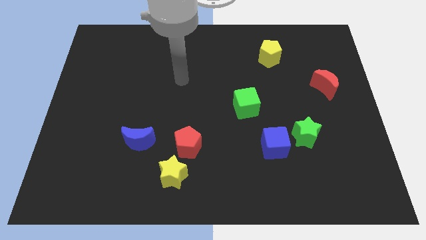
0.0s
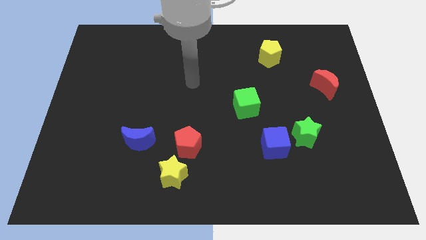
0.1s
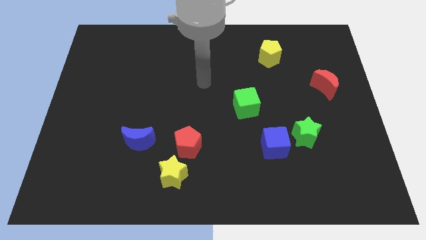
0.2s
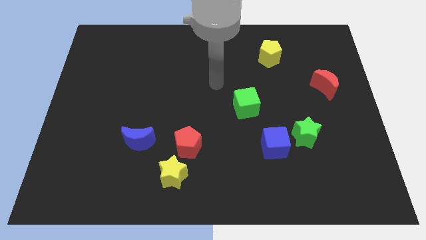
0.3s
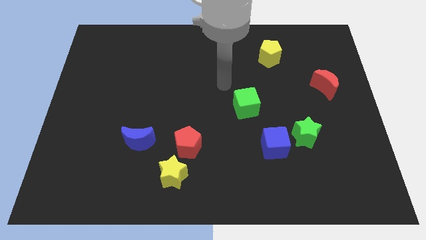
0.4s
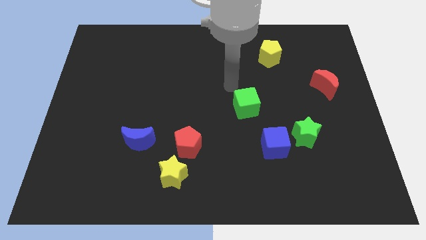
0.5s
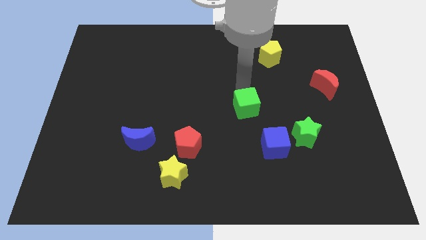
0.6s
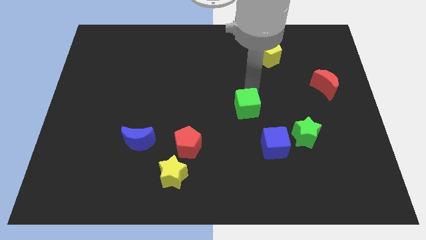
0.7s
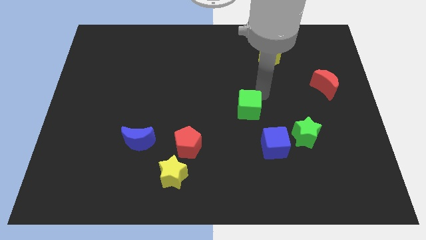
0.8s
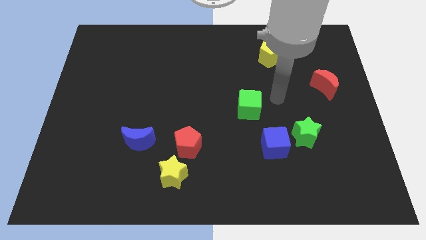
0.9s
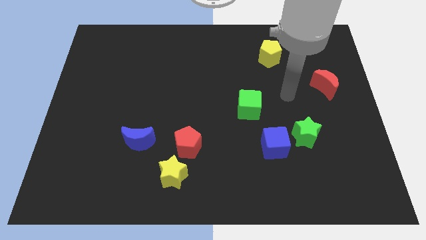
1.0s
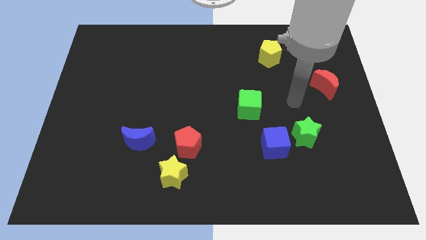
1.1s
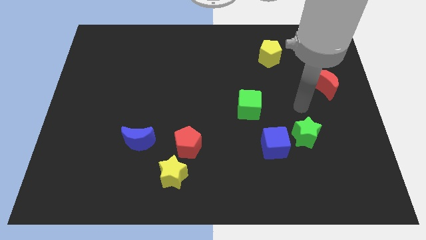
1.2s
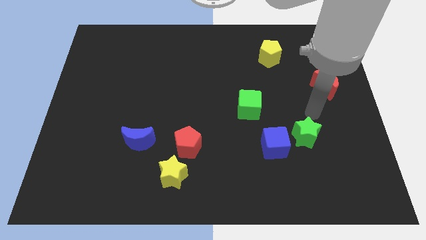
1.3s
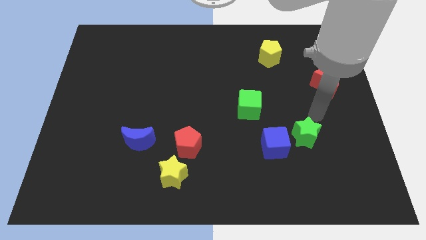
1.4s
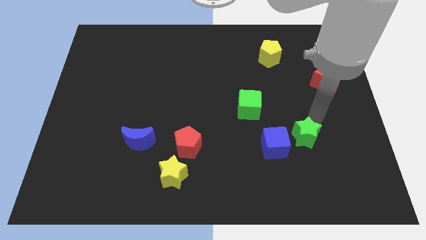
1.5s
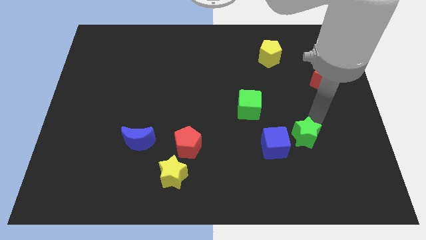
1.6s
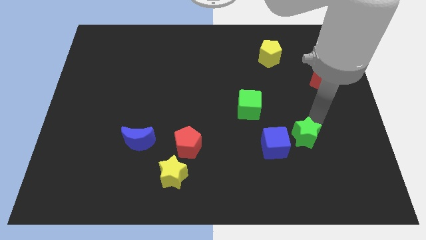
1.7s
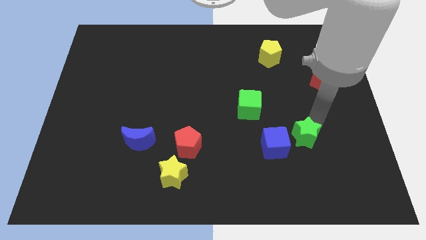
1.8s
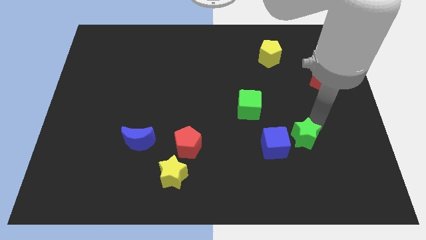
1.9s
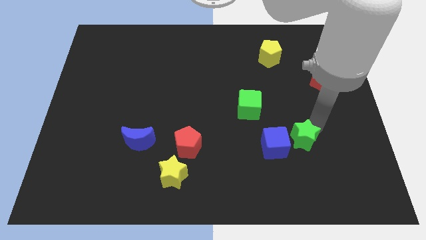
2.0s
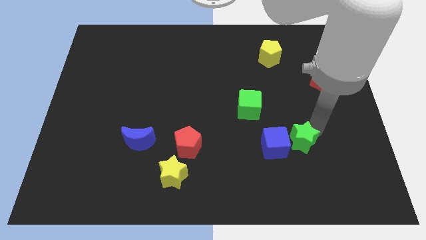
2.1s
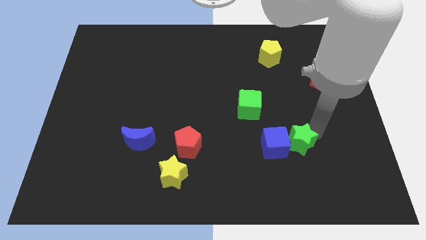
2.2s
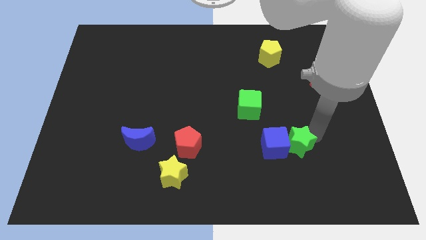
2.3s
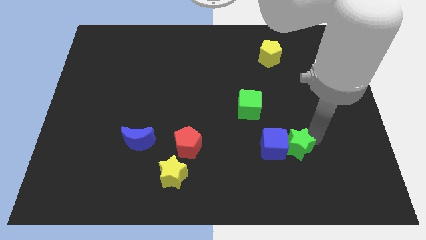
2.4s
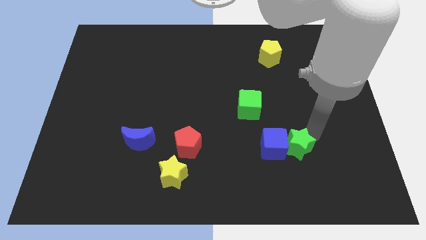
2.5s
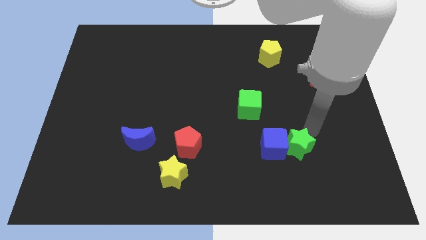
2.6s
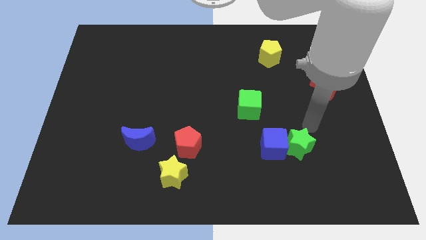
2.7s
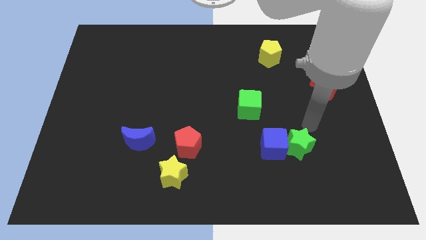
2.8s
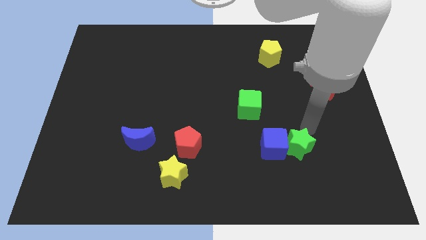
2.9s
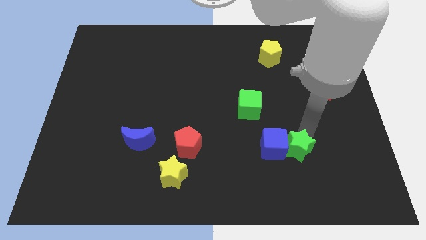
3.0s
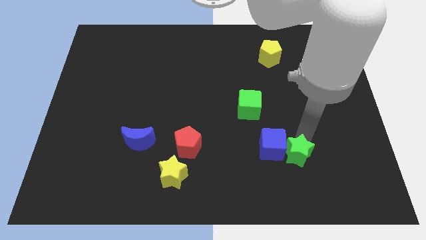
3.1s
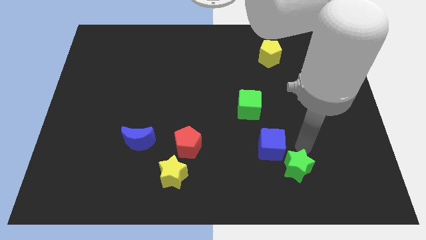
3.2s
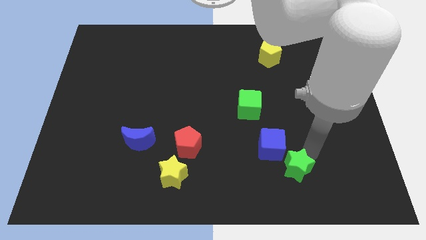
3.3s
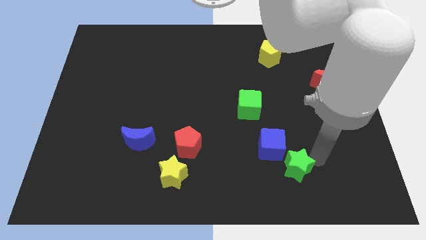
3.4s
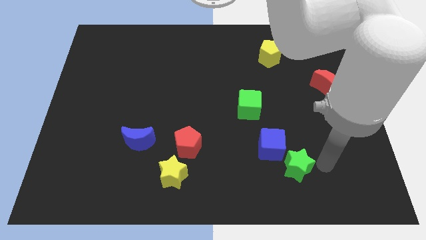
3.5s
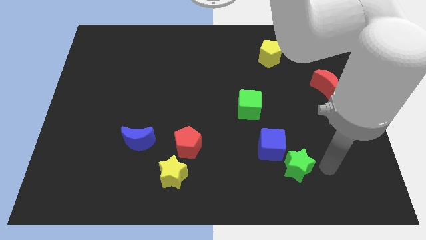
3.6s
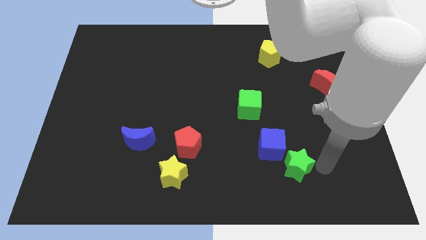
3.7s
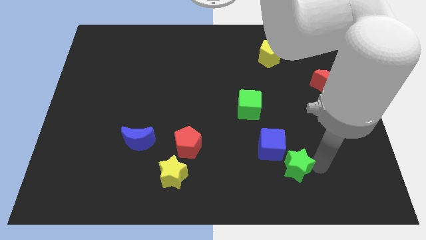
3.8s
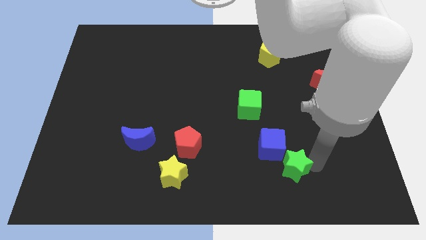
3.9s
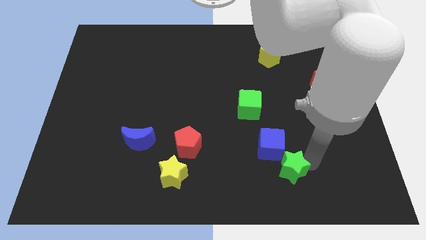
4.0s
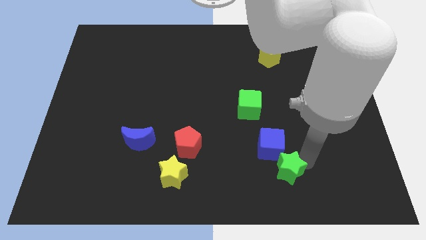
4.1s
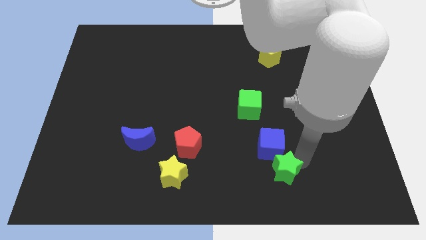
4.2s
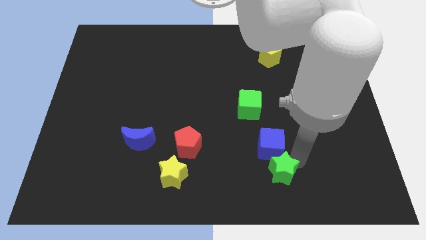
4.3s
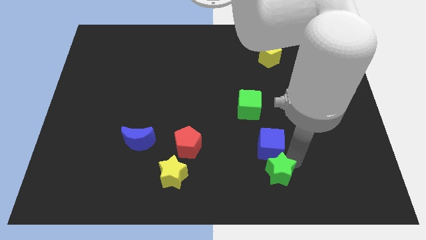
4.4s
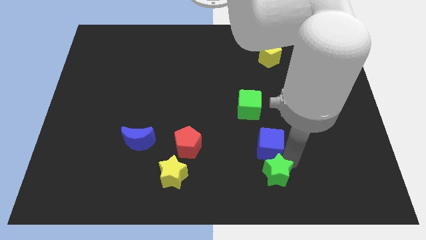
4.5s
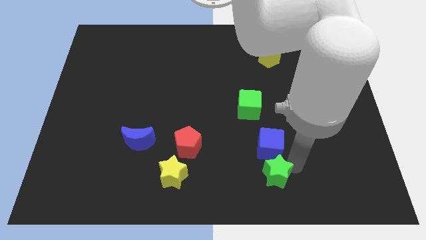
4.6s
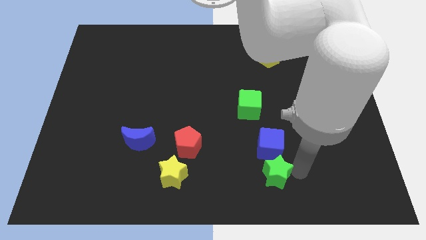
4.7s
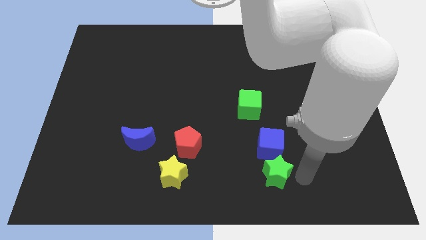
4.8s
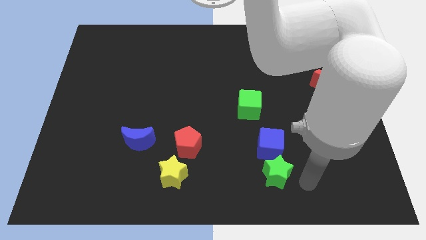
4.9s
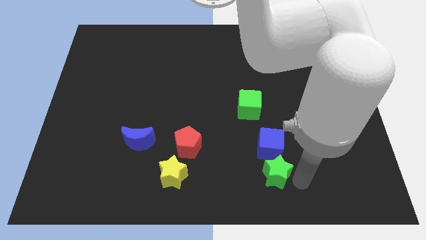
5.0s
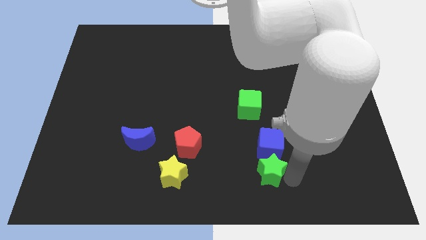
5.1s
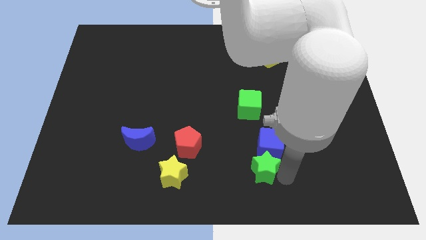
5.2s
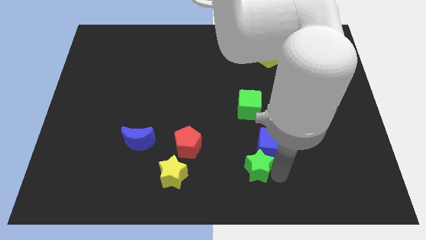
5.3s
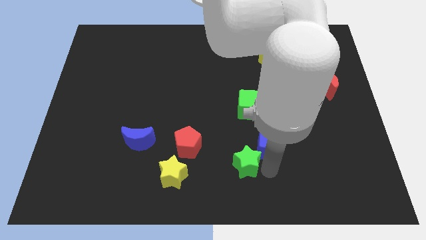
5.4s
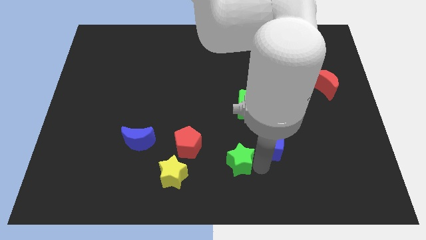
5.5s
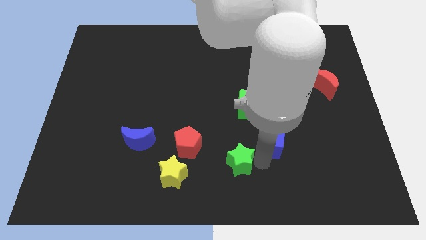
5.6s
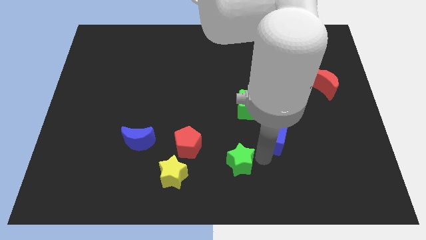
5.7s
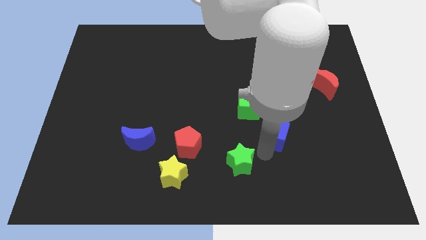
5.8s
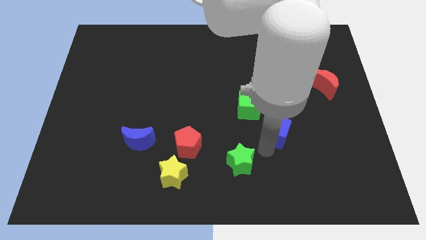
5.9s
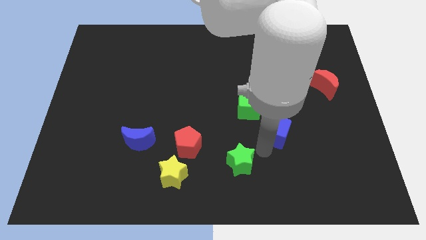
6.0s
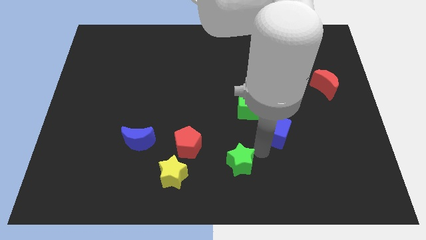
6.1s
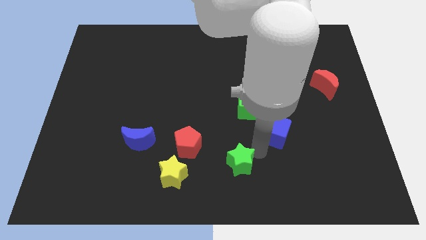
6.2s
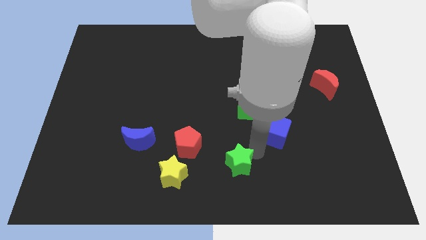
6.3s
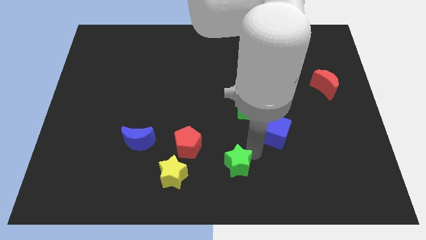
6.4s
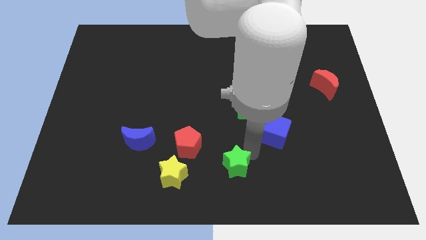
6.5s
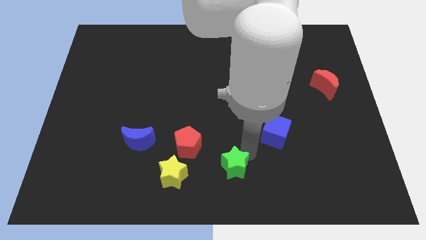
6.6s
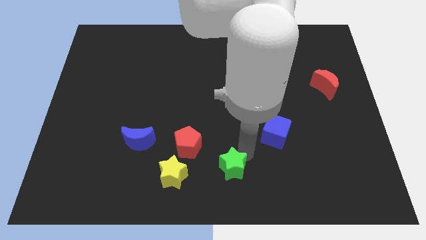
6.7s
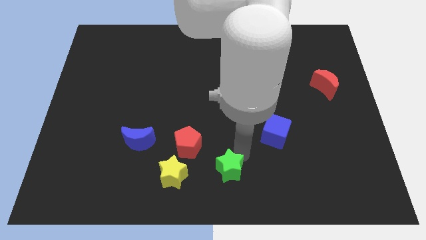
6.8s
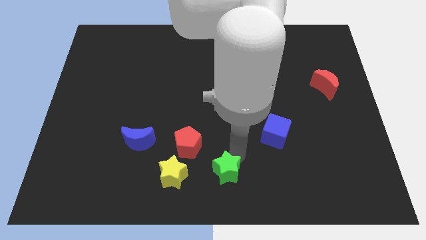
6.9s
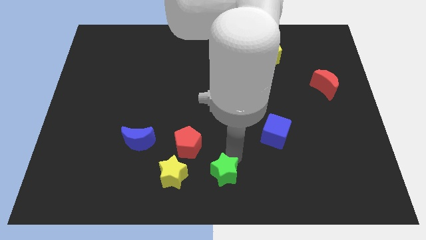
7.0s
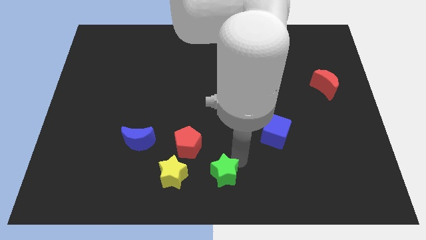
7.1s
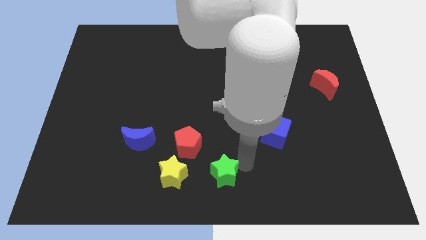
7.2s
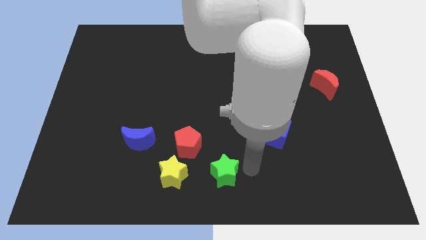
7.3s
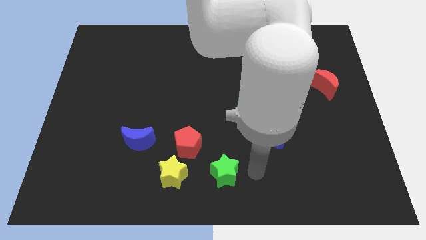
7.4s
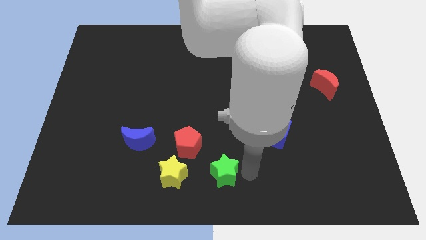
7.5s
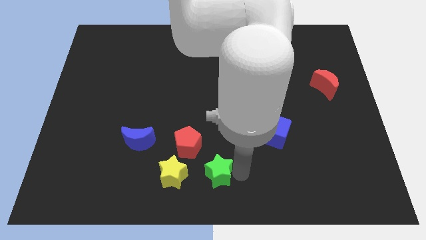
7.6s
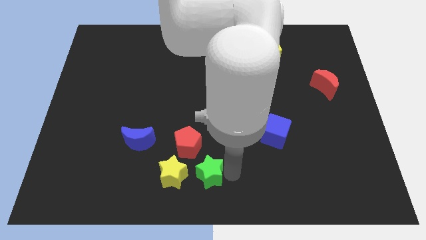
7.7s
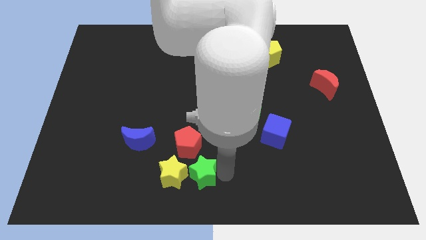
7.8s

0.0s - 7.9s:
put the green star close to the yellow star

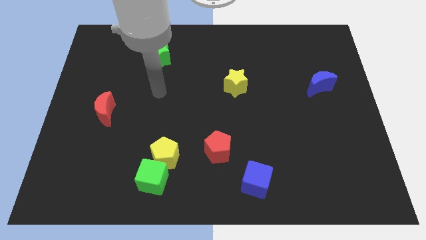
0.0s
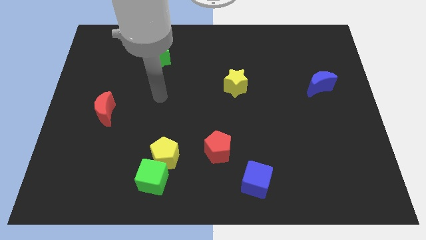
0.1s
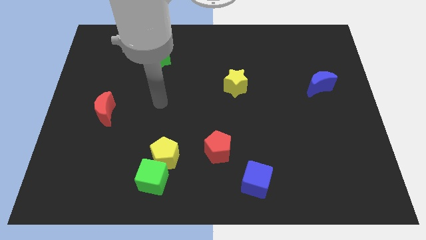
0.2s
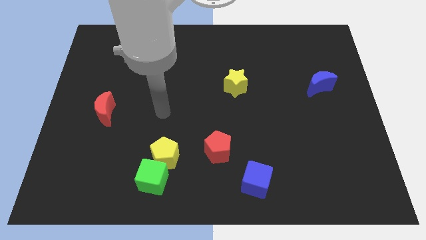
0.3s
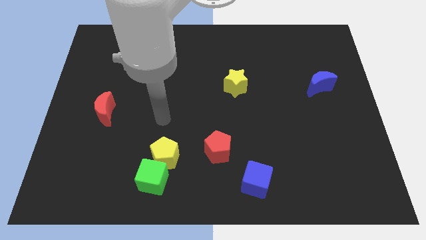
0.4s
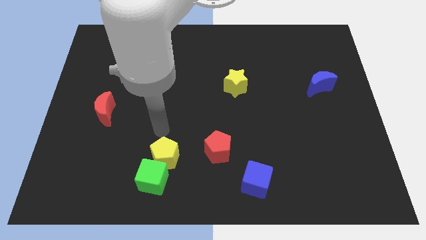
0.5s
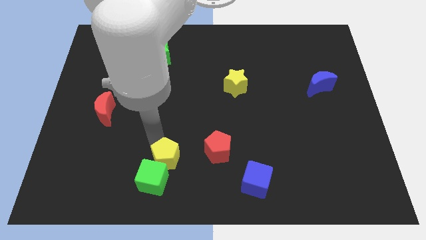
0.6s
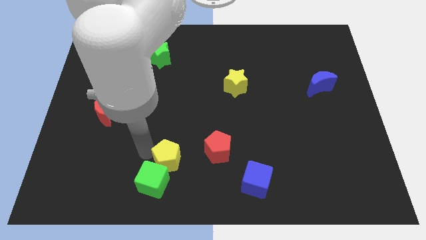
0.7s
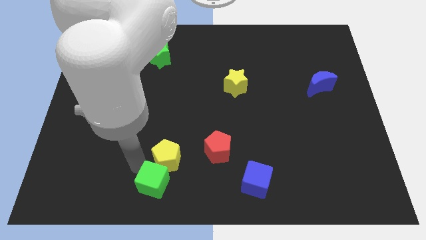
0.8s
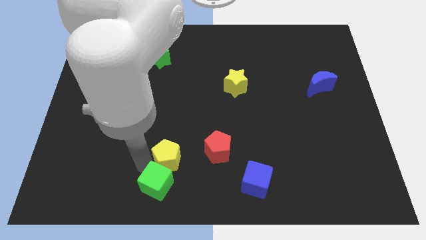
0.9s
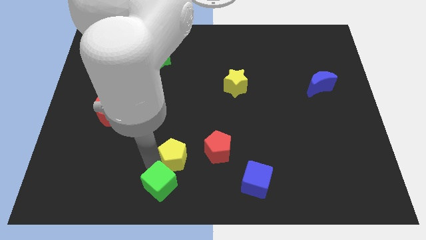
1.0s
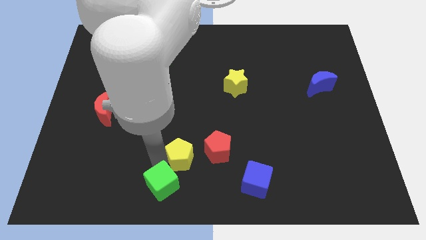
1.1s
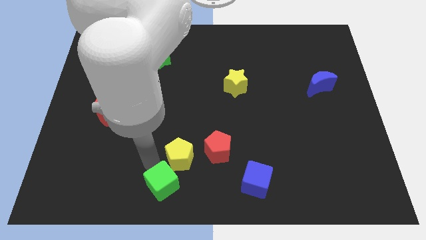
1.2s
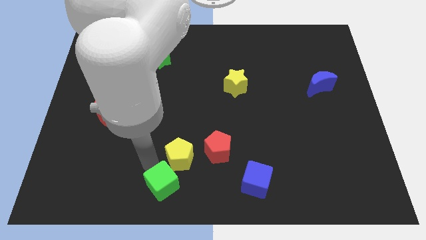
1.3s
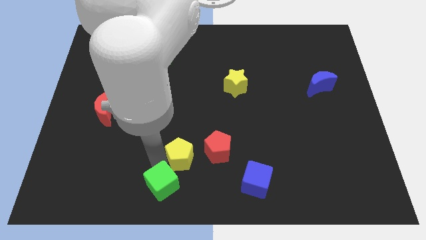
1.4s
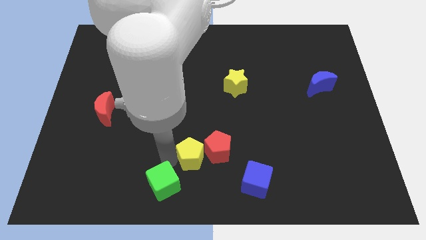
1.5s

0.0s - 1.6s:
move the yellow pentagon towards the red pentagon
